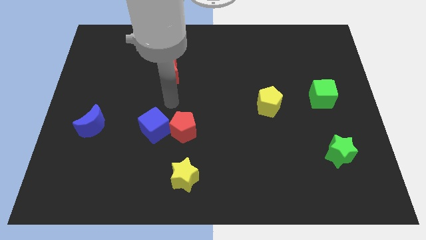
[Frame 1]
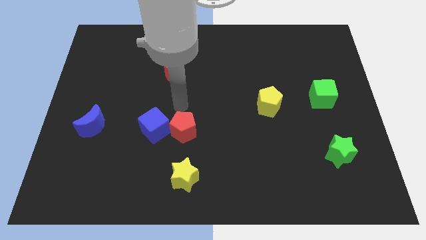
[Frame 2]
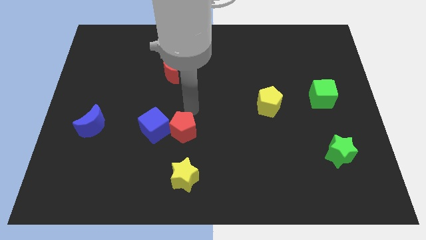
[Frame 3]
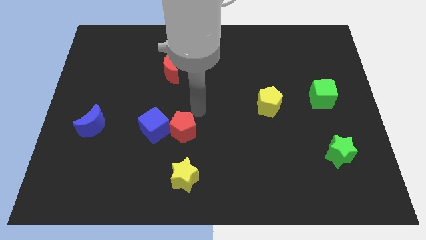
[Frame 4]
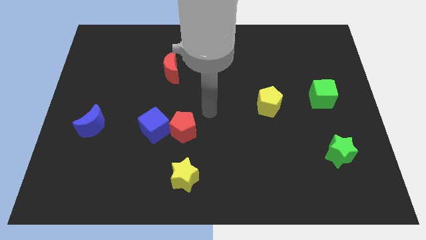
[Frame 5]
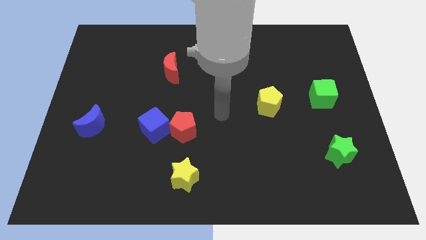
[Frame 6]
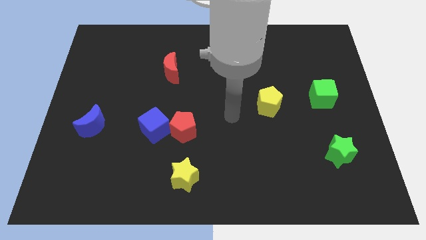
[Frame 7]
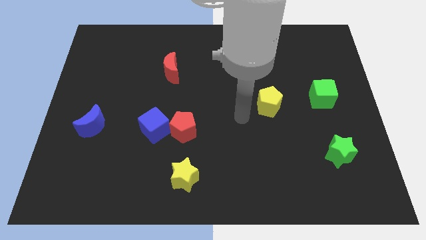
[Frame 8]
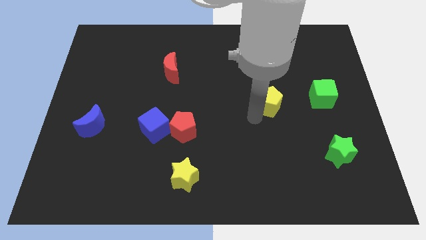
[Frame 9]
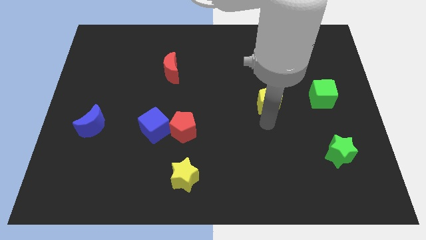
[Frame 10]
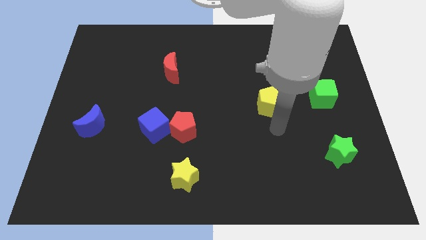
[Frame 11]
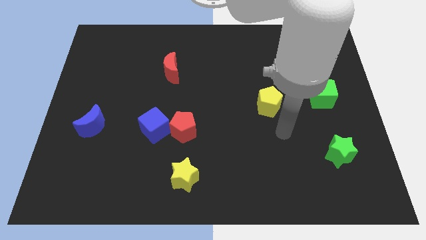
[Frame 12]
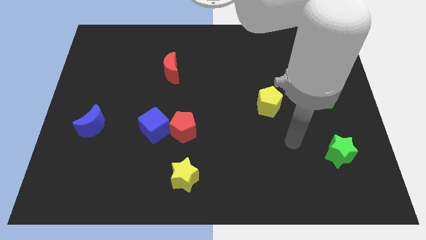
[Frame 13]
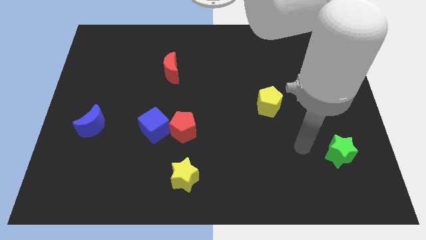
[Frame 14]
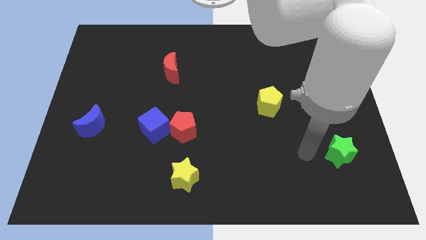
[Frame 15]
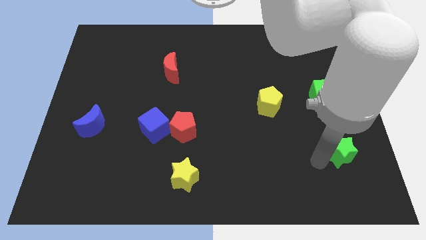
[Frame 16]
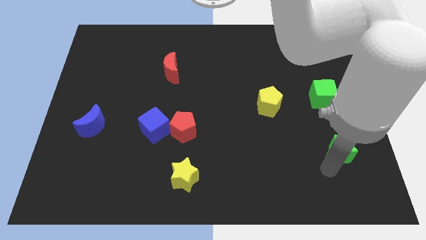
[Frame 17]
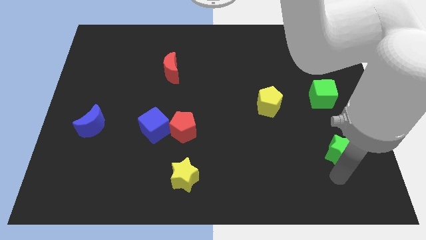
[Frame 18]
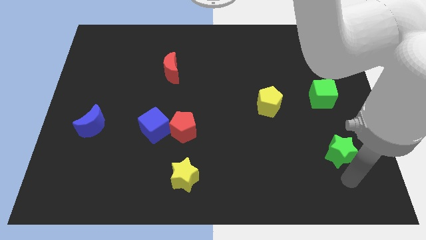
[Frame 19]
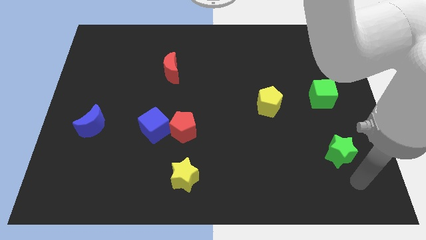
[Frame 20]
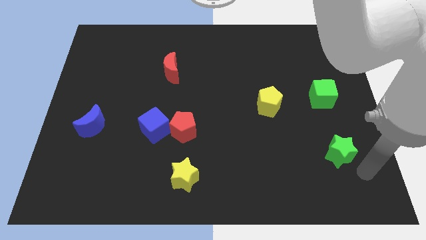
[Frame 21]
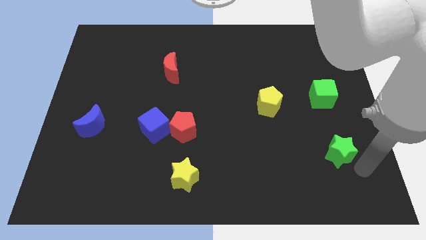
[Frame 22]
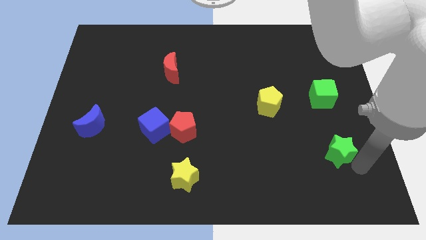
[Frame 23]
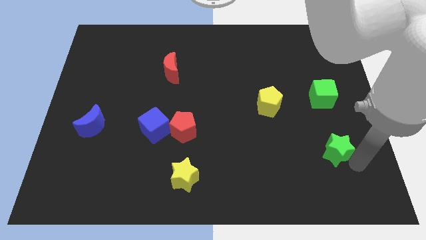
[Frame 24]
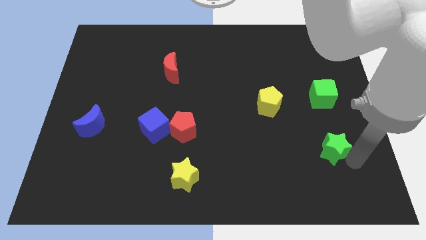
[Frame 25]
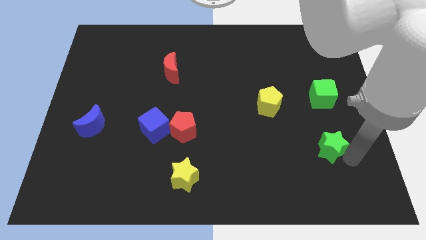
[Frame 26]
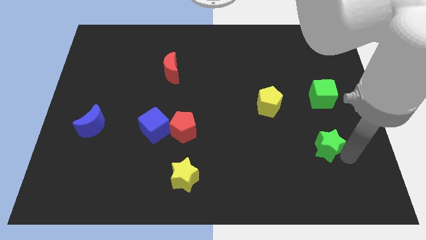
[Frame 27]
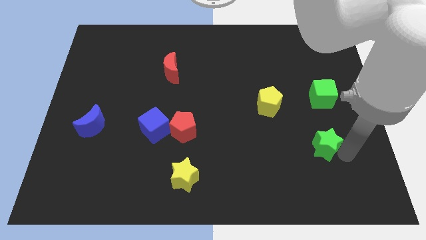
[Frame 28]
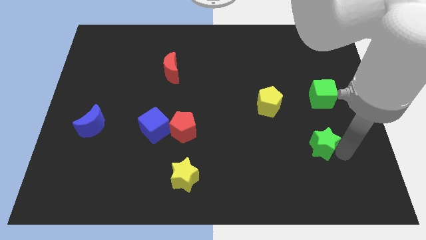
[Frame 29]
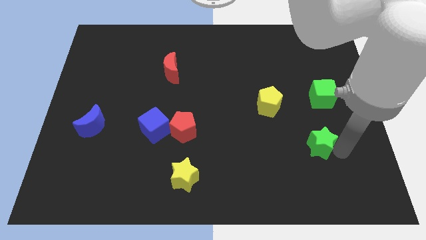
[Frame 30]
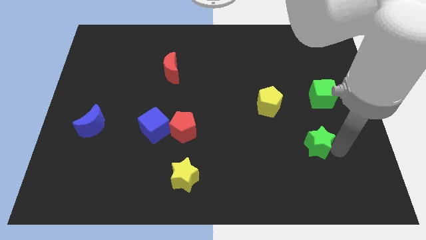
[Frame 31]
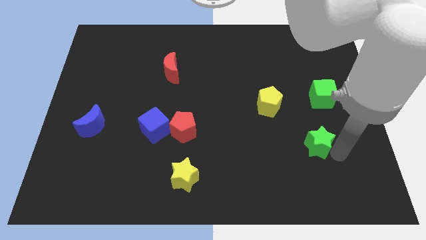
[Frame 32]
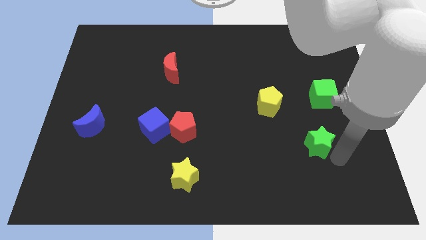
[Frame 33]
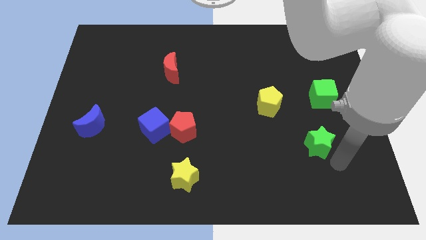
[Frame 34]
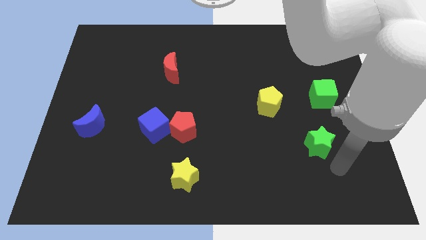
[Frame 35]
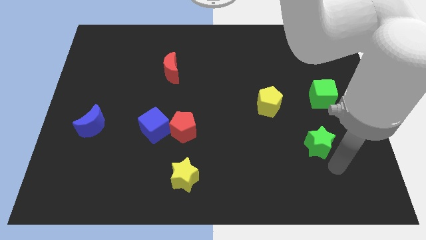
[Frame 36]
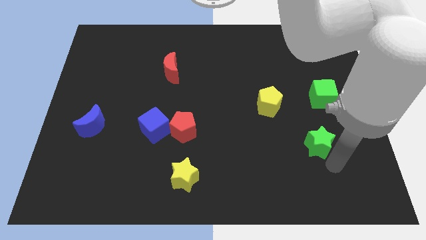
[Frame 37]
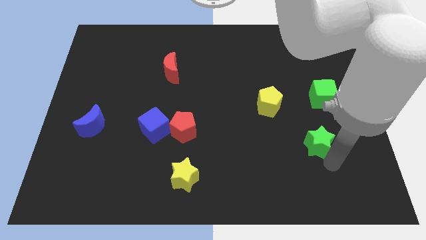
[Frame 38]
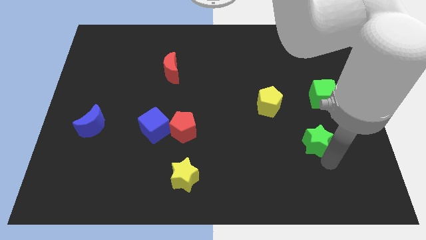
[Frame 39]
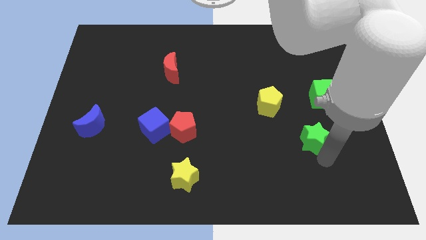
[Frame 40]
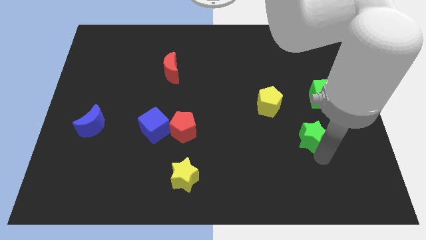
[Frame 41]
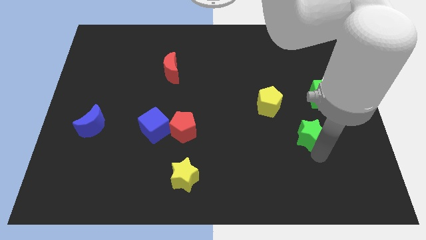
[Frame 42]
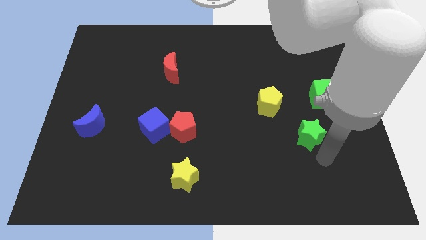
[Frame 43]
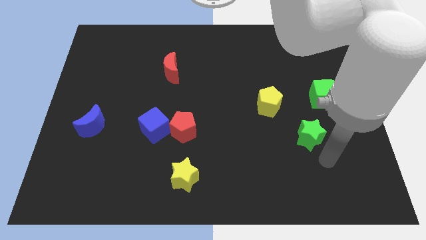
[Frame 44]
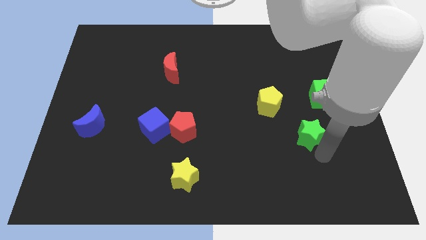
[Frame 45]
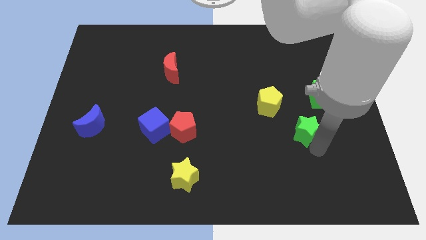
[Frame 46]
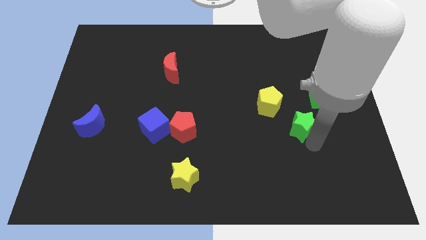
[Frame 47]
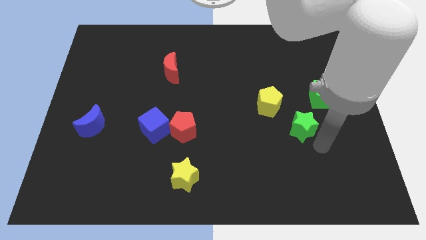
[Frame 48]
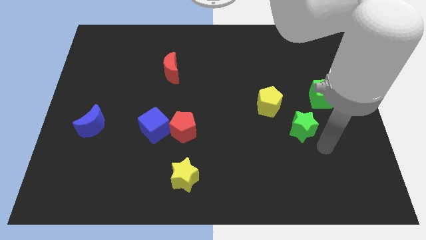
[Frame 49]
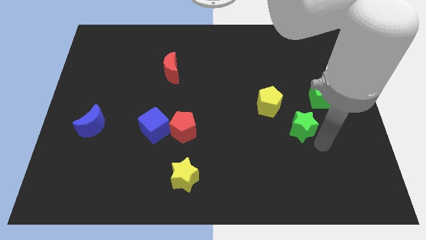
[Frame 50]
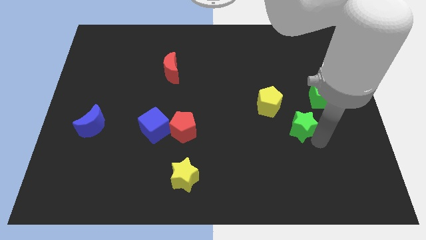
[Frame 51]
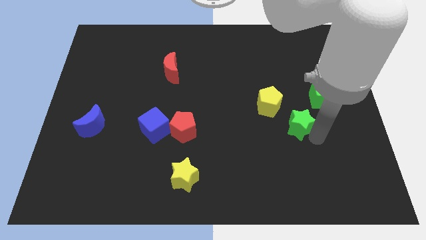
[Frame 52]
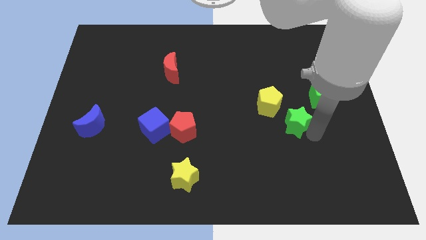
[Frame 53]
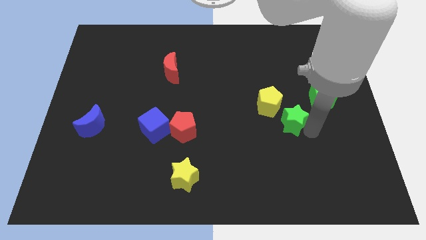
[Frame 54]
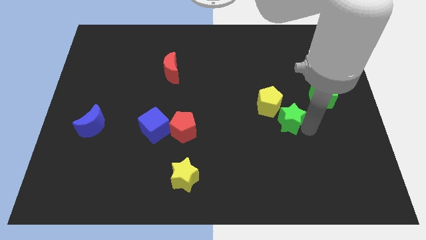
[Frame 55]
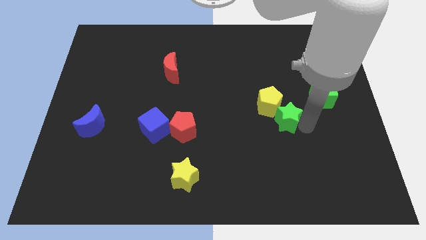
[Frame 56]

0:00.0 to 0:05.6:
slide the green star towards the yellow pentagon

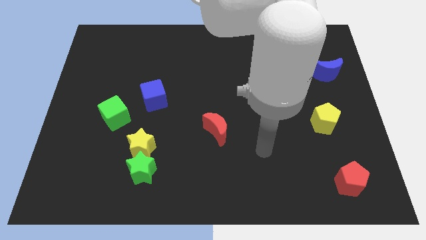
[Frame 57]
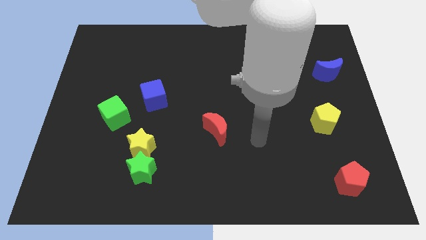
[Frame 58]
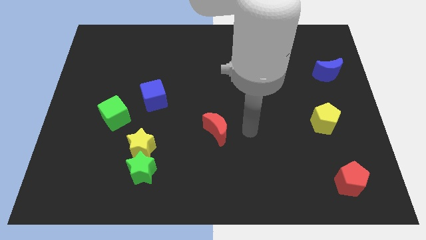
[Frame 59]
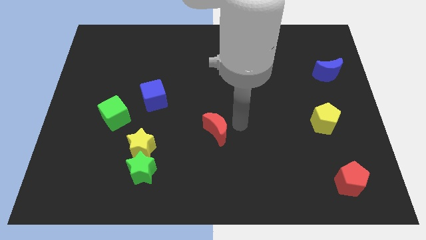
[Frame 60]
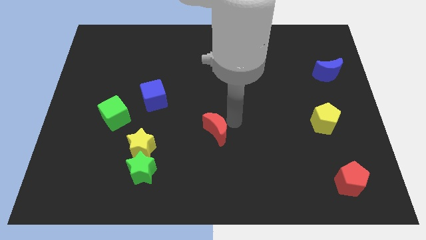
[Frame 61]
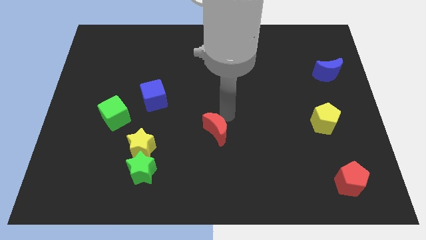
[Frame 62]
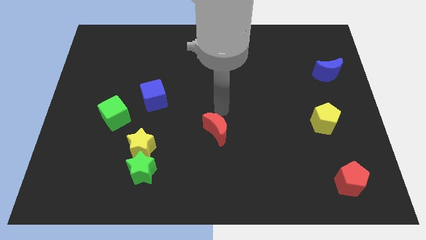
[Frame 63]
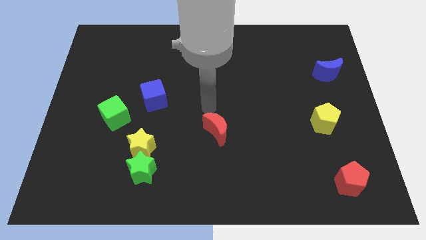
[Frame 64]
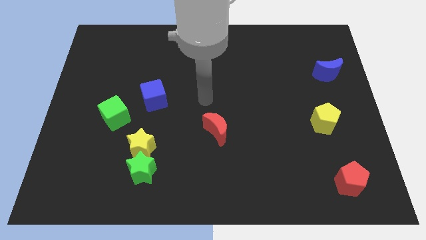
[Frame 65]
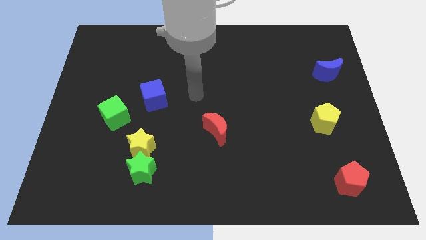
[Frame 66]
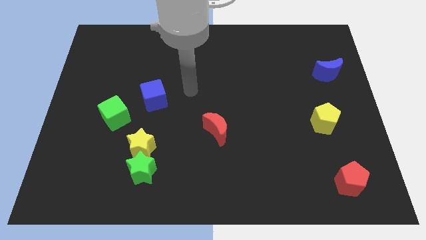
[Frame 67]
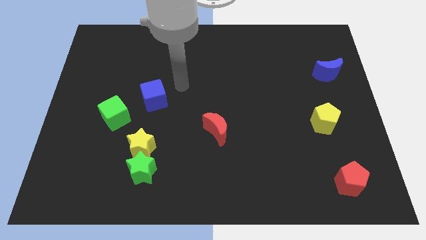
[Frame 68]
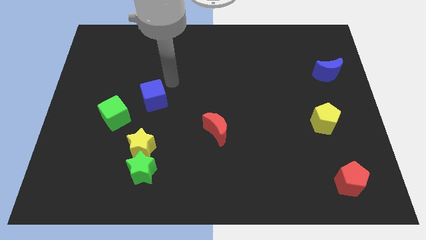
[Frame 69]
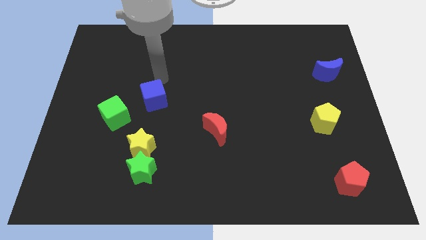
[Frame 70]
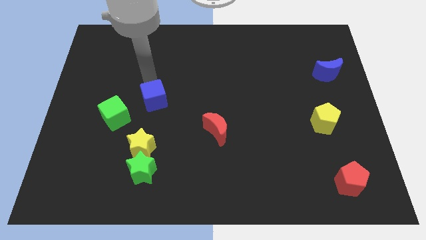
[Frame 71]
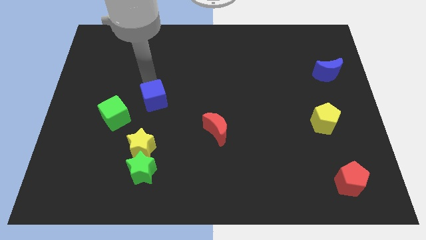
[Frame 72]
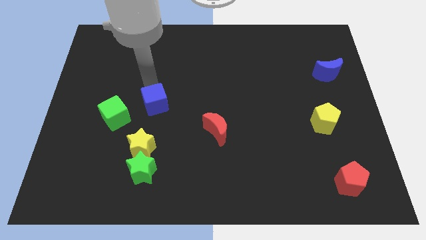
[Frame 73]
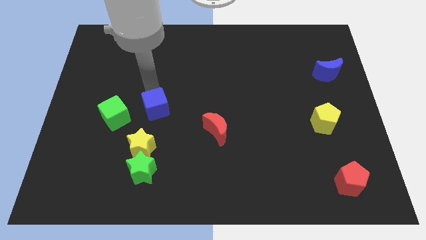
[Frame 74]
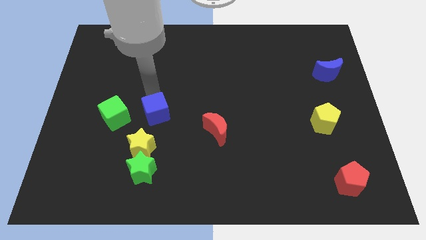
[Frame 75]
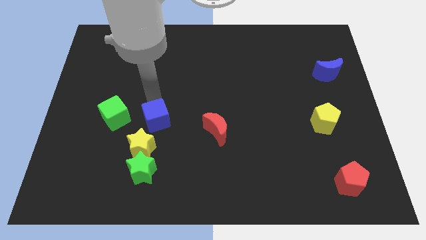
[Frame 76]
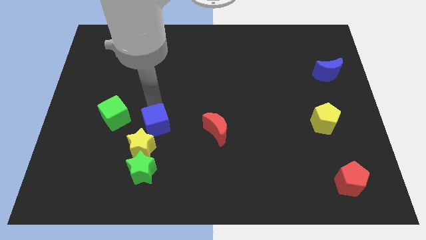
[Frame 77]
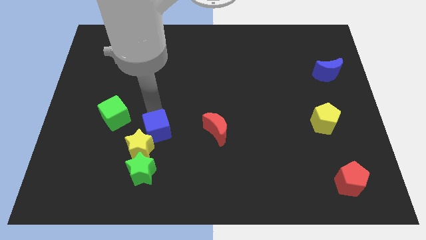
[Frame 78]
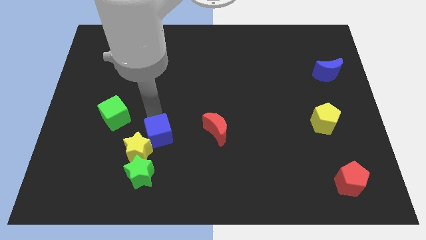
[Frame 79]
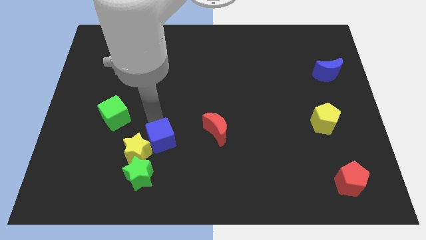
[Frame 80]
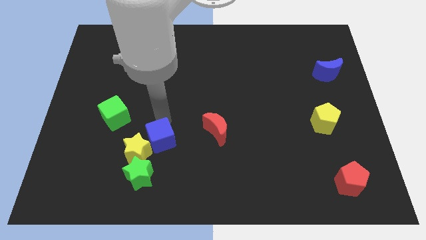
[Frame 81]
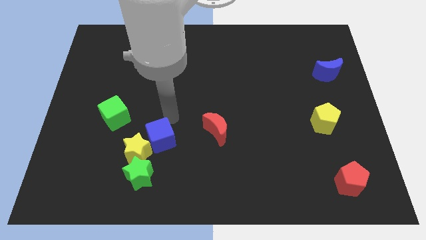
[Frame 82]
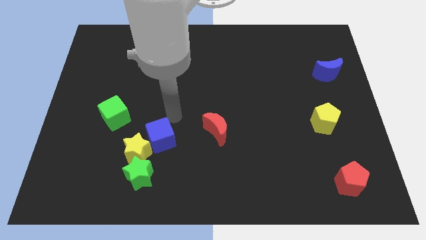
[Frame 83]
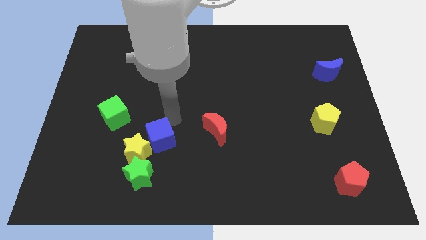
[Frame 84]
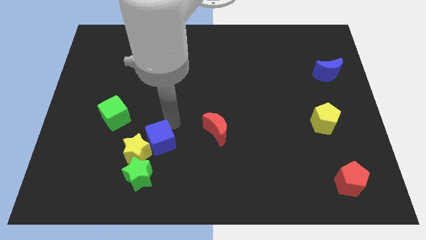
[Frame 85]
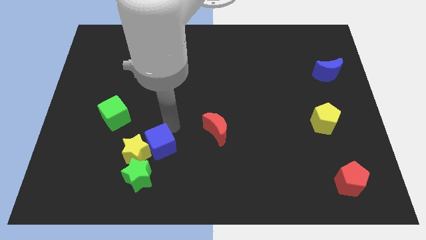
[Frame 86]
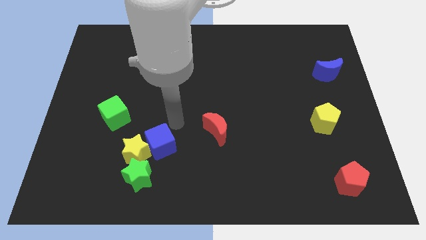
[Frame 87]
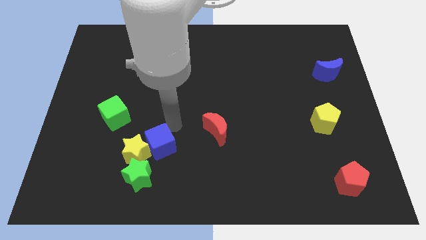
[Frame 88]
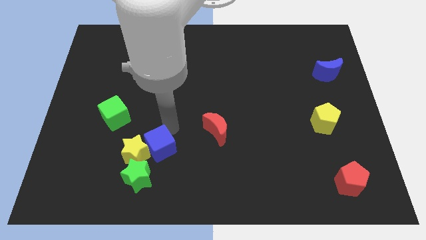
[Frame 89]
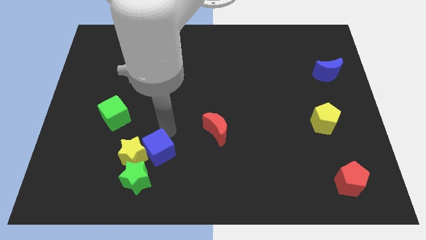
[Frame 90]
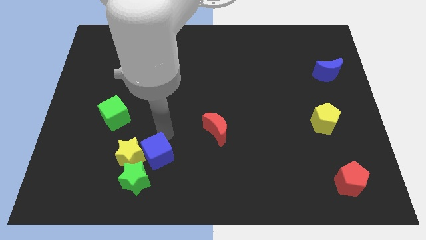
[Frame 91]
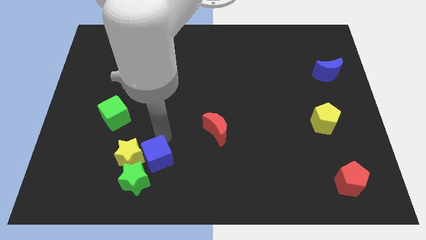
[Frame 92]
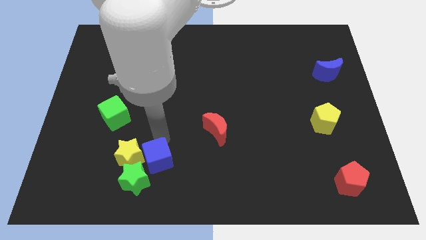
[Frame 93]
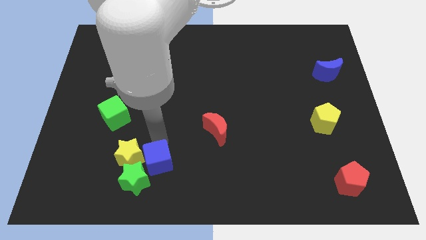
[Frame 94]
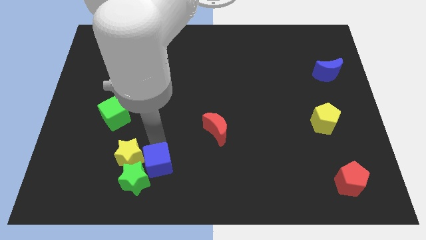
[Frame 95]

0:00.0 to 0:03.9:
slide the blue cube next to the green star
